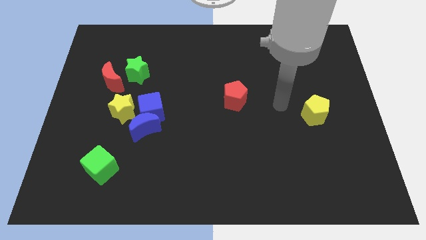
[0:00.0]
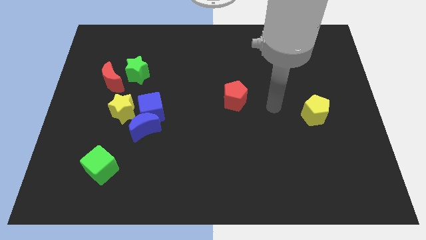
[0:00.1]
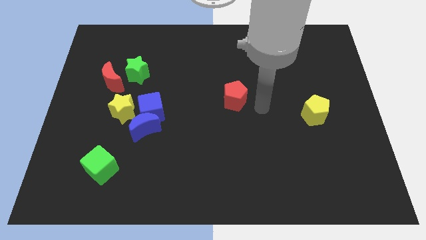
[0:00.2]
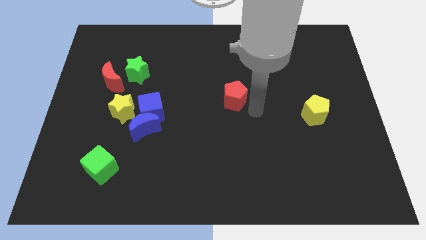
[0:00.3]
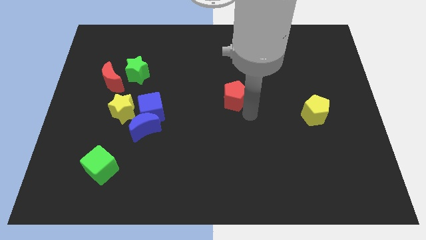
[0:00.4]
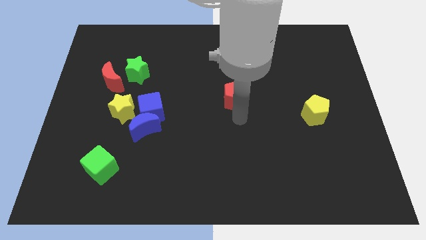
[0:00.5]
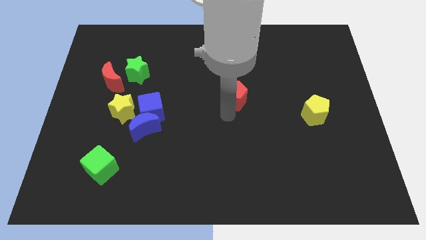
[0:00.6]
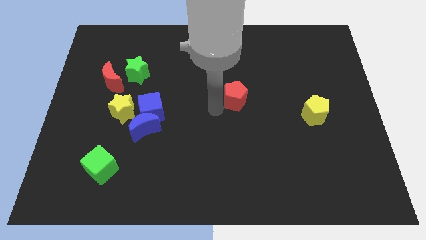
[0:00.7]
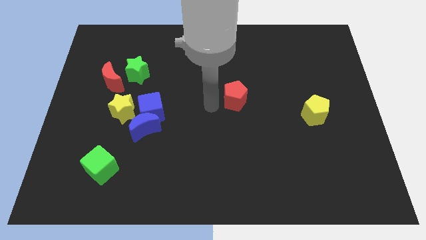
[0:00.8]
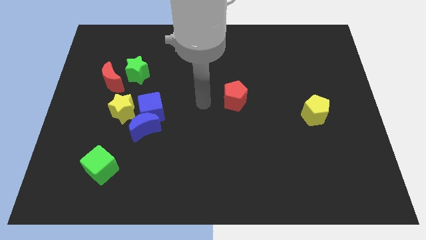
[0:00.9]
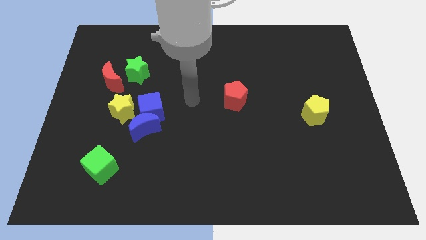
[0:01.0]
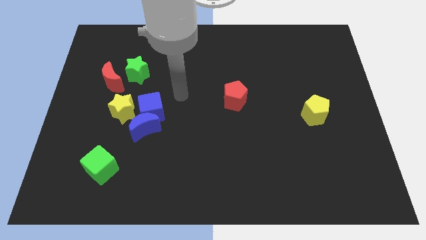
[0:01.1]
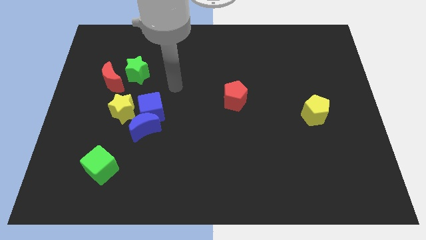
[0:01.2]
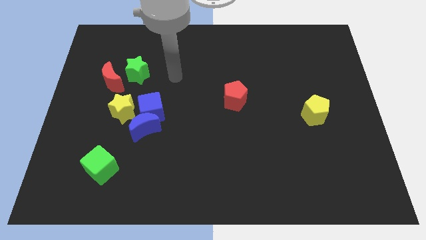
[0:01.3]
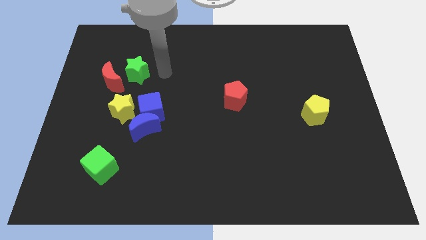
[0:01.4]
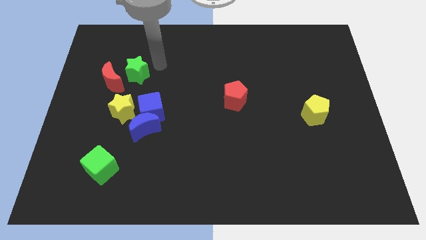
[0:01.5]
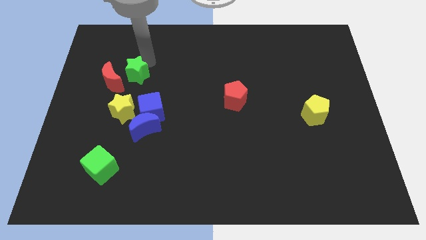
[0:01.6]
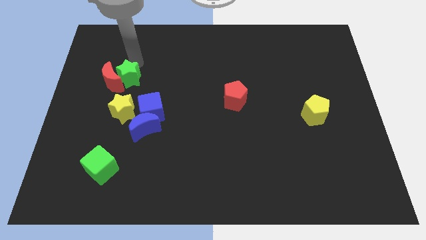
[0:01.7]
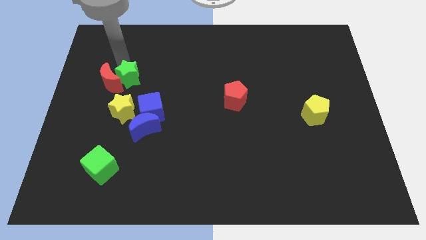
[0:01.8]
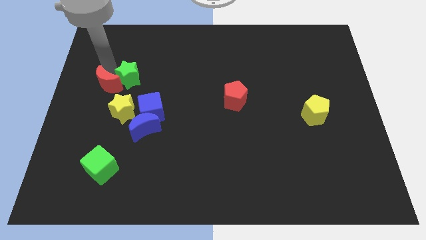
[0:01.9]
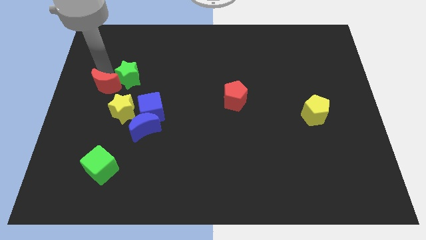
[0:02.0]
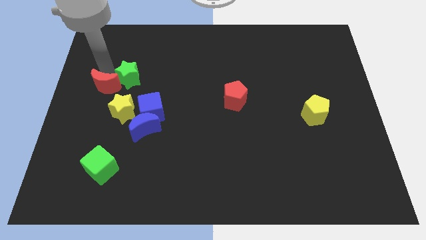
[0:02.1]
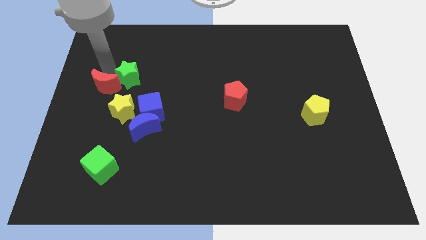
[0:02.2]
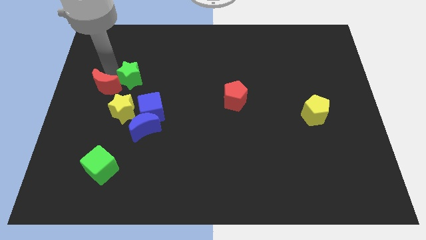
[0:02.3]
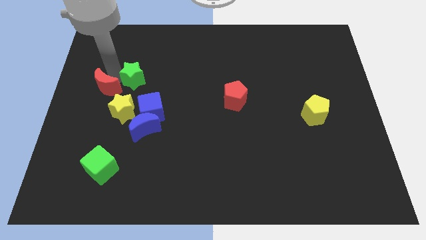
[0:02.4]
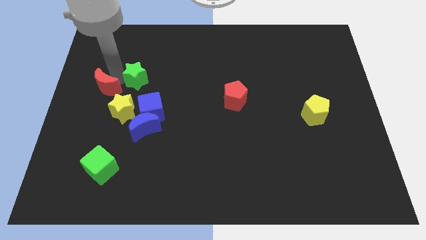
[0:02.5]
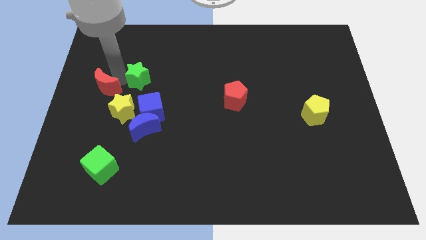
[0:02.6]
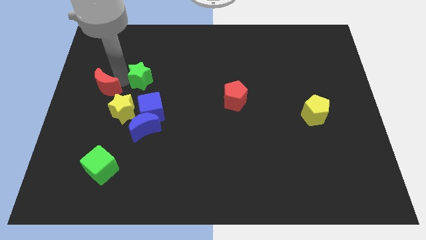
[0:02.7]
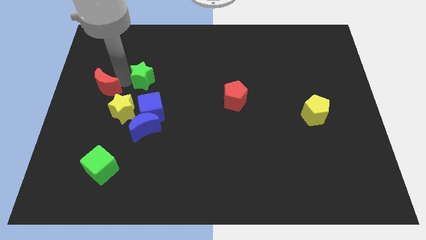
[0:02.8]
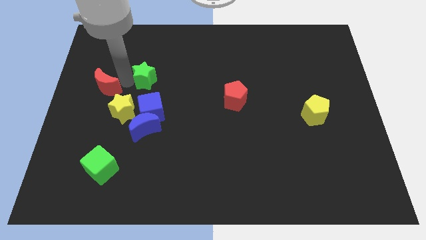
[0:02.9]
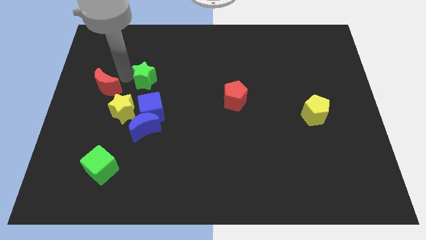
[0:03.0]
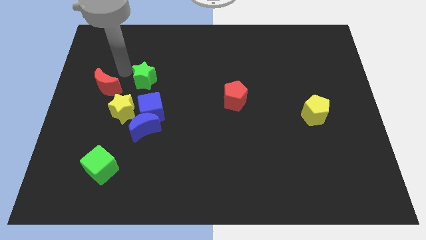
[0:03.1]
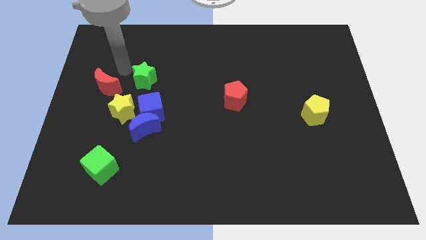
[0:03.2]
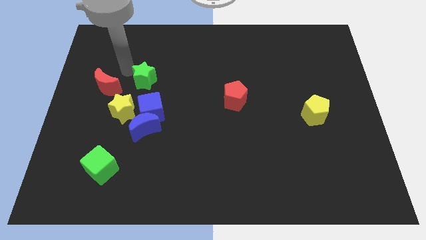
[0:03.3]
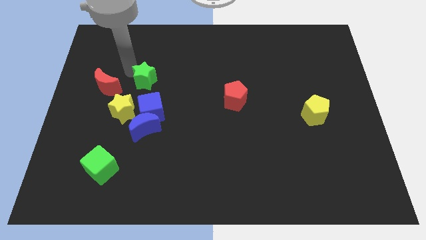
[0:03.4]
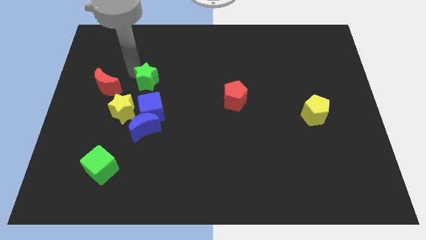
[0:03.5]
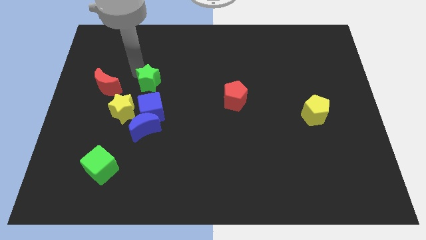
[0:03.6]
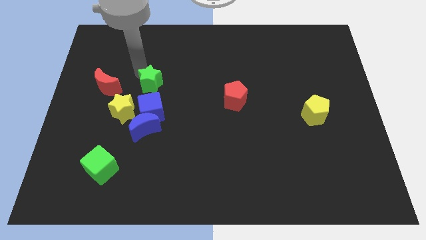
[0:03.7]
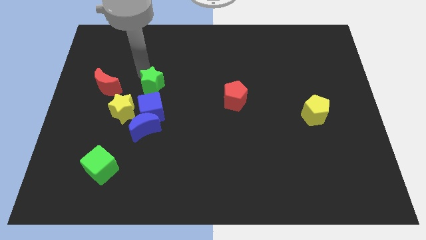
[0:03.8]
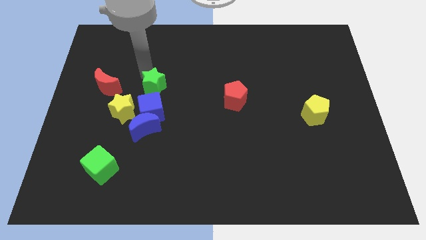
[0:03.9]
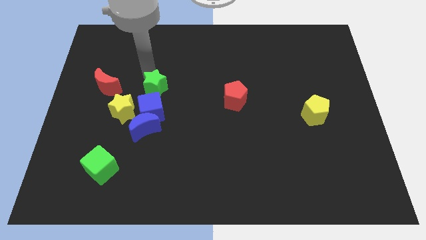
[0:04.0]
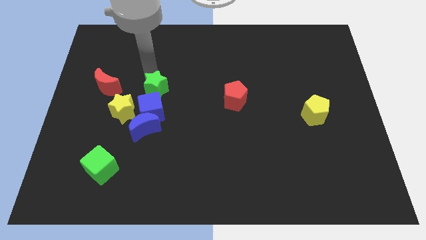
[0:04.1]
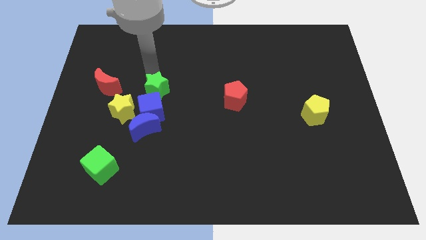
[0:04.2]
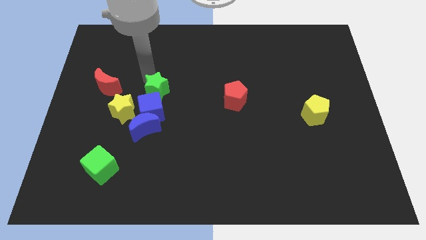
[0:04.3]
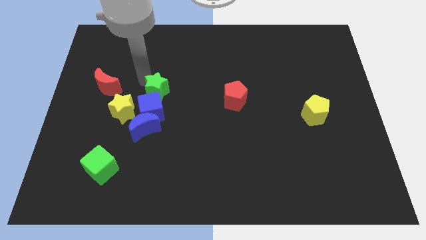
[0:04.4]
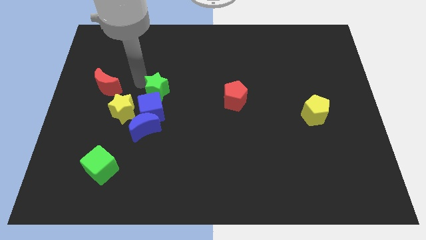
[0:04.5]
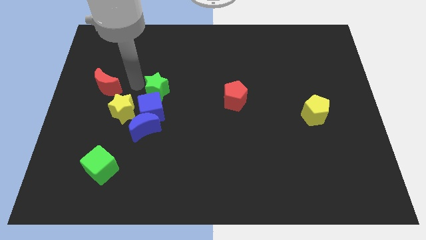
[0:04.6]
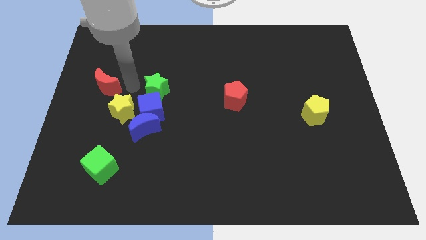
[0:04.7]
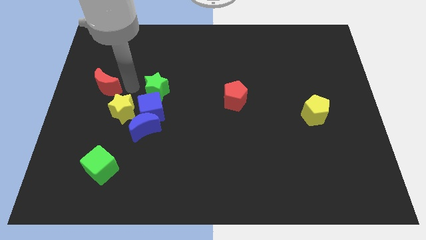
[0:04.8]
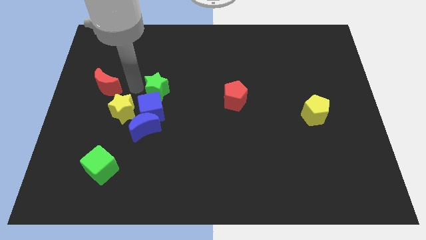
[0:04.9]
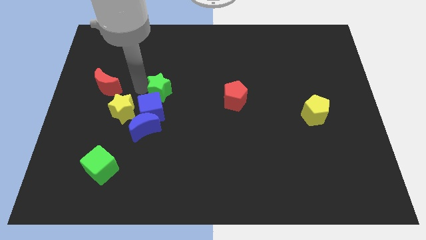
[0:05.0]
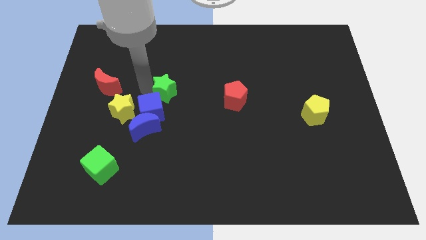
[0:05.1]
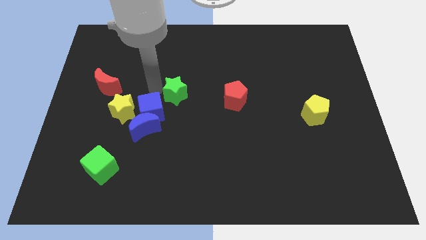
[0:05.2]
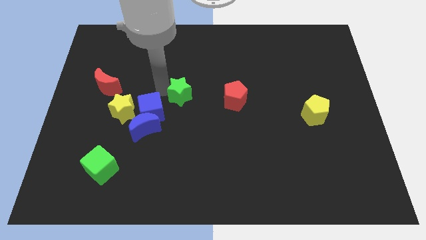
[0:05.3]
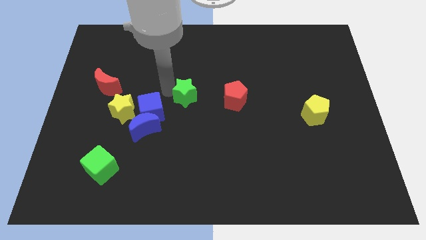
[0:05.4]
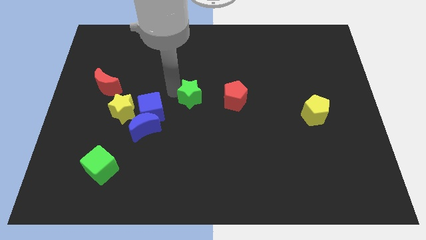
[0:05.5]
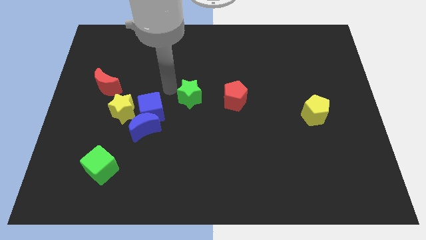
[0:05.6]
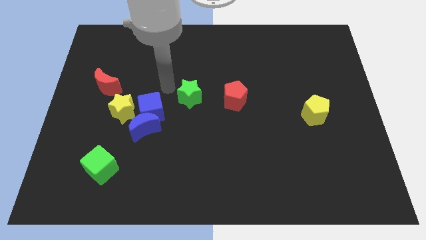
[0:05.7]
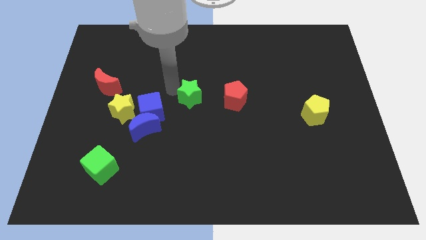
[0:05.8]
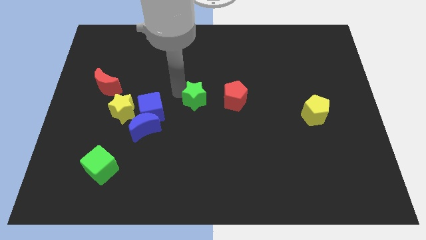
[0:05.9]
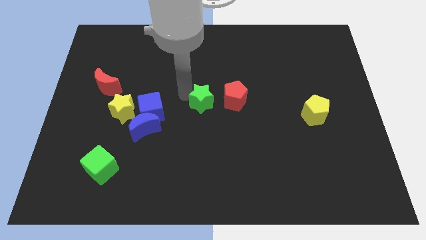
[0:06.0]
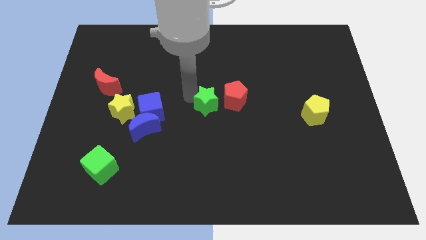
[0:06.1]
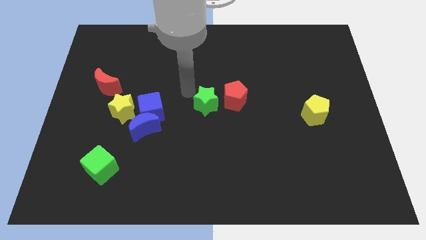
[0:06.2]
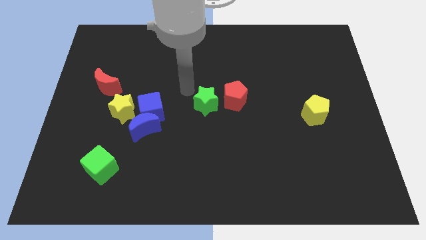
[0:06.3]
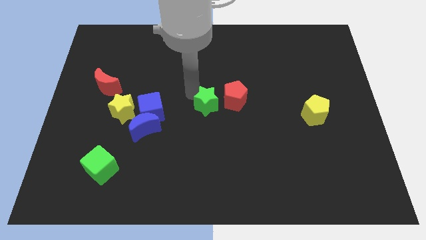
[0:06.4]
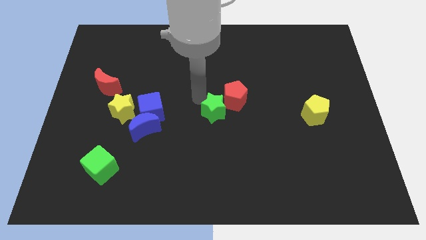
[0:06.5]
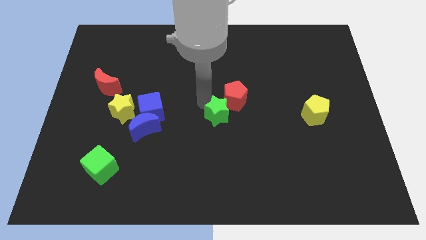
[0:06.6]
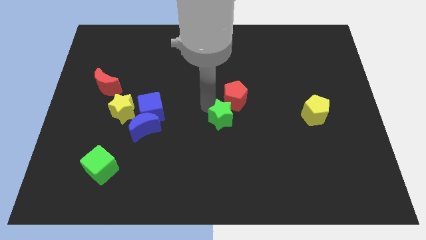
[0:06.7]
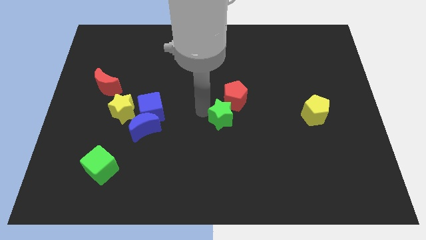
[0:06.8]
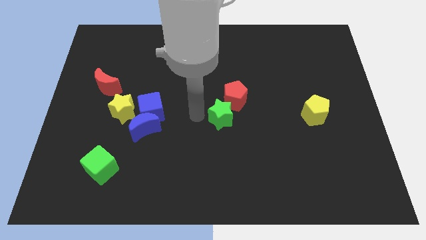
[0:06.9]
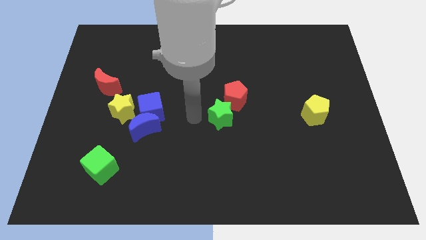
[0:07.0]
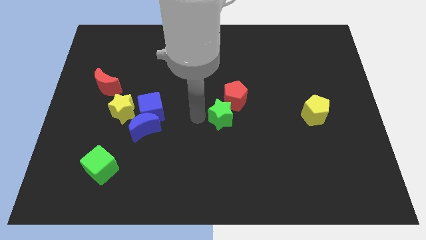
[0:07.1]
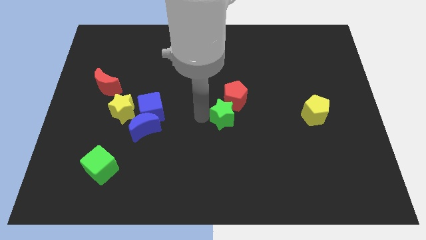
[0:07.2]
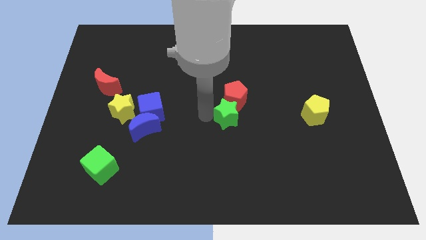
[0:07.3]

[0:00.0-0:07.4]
push the green star to the bottom right of the red pentagon
